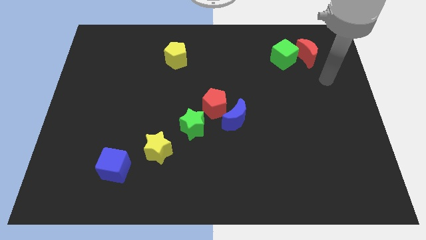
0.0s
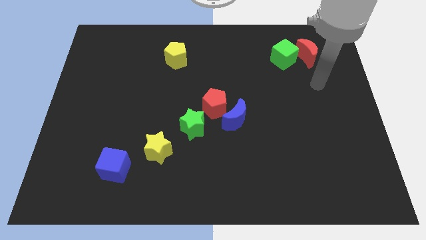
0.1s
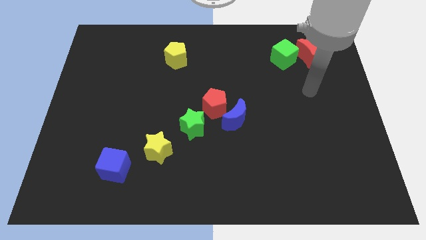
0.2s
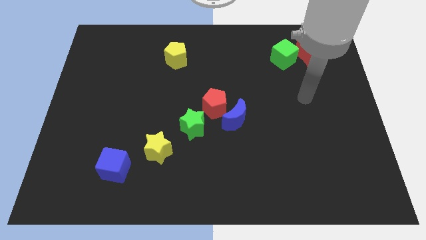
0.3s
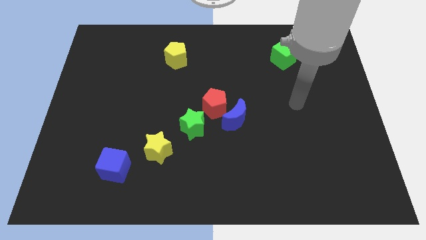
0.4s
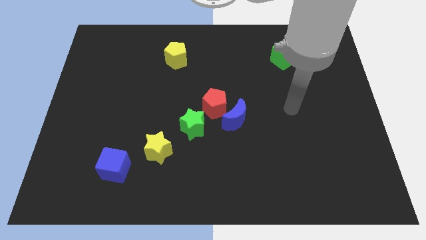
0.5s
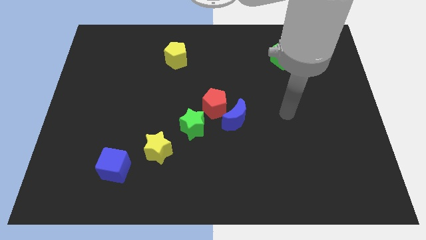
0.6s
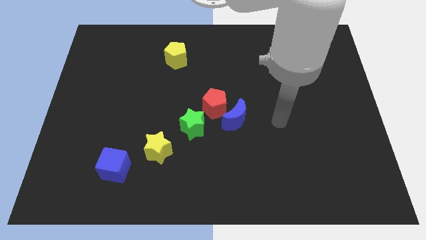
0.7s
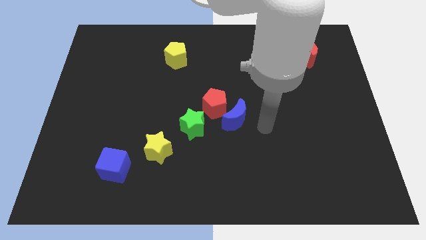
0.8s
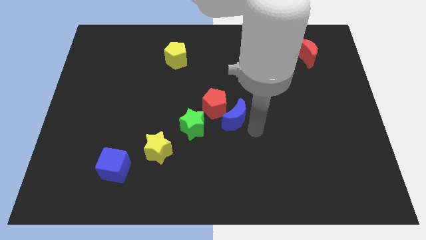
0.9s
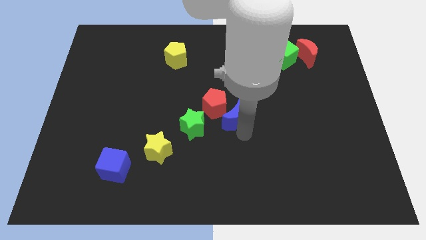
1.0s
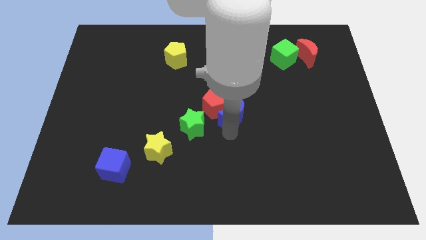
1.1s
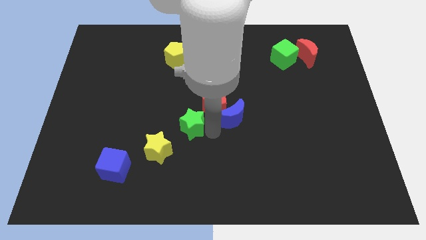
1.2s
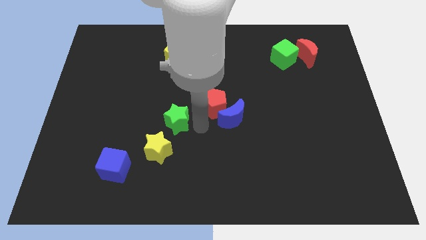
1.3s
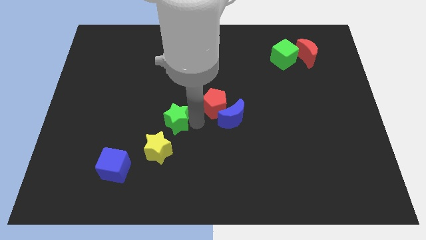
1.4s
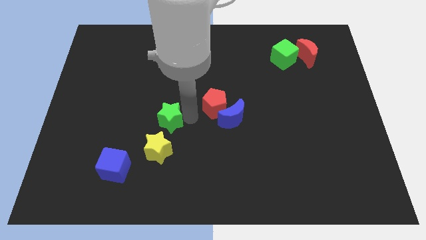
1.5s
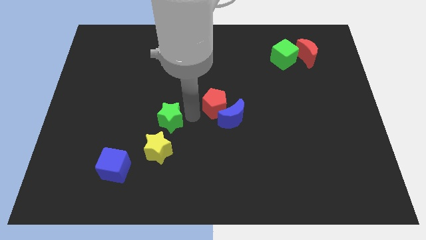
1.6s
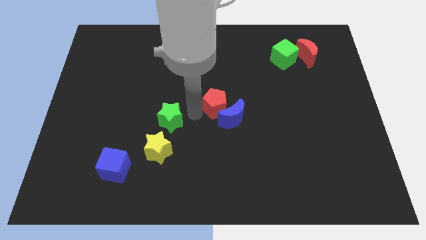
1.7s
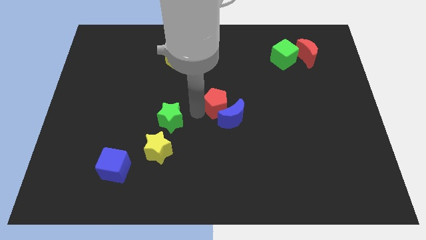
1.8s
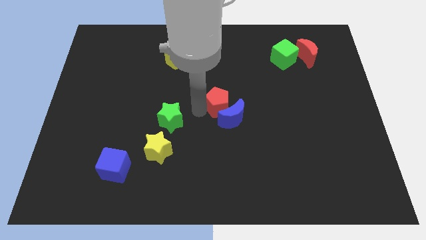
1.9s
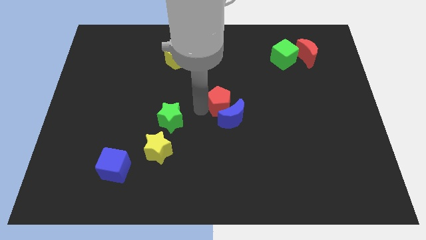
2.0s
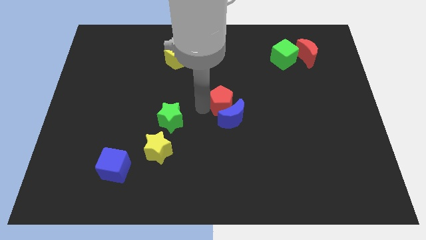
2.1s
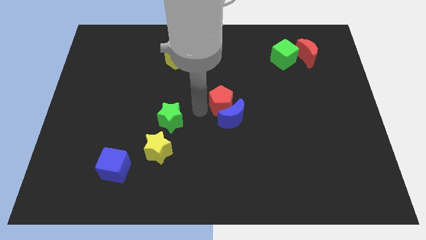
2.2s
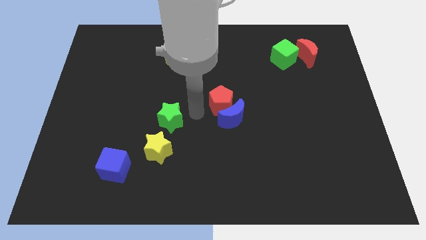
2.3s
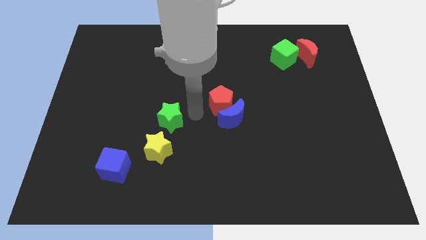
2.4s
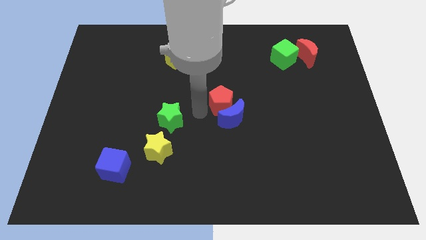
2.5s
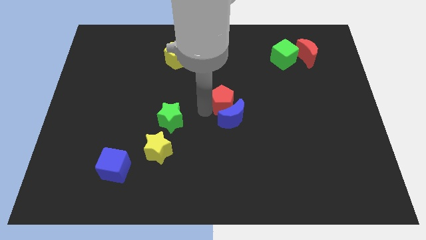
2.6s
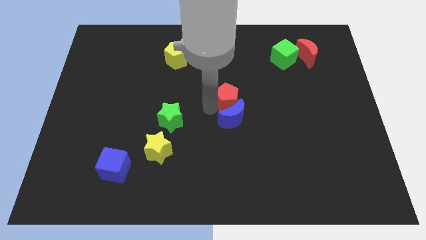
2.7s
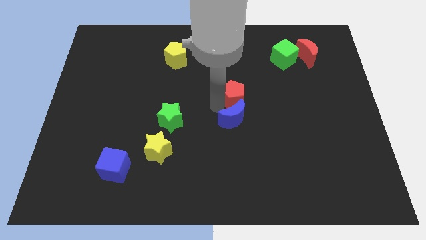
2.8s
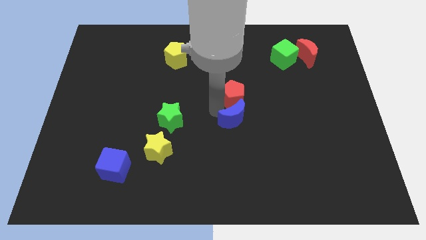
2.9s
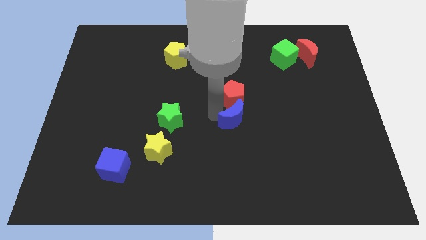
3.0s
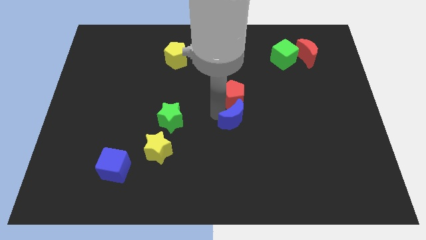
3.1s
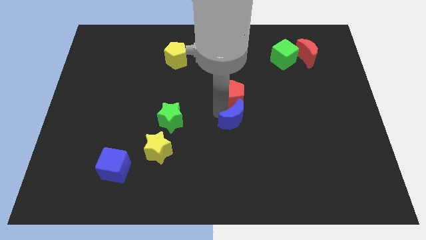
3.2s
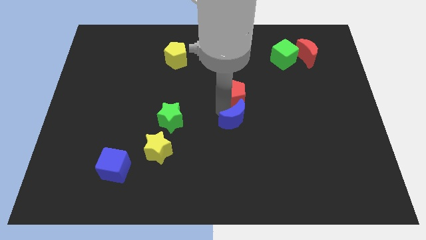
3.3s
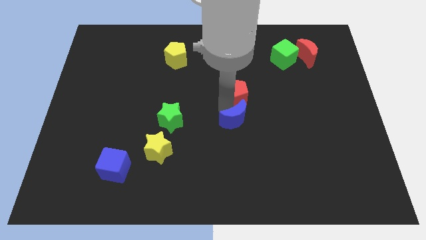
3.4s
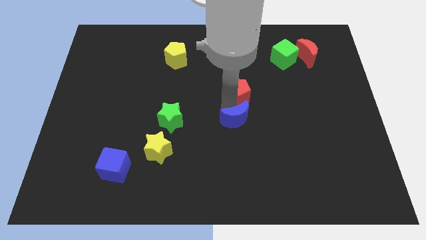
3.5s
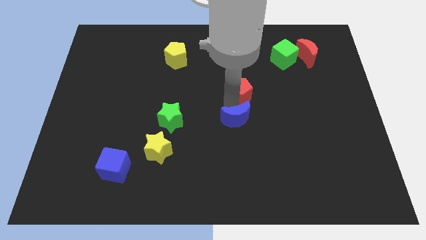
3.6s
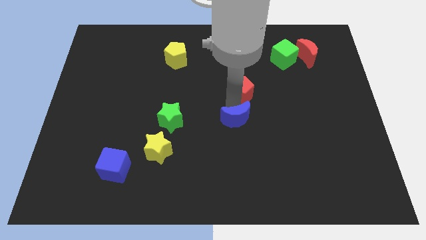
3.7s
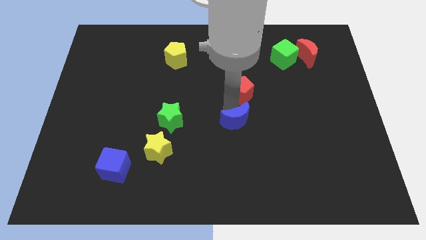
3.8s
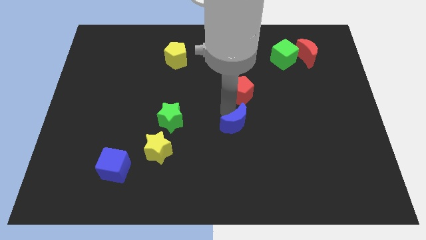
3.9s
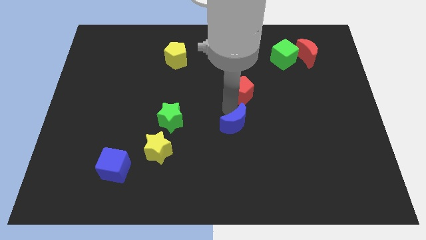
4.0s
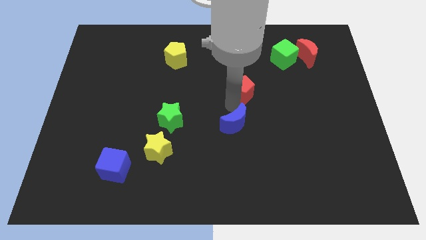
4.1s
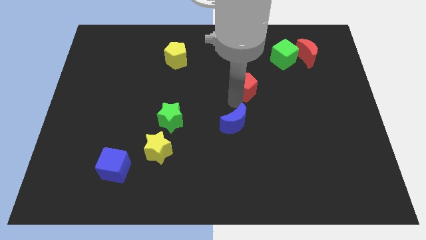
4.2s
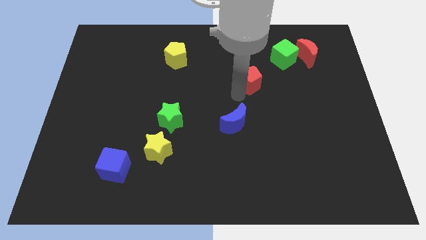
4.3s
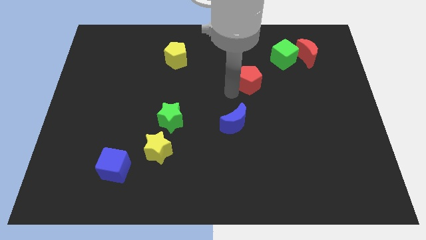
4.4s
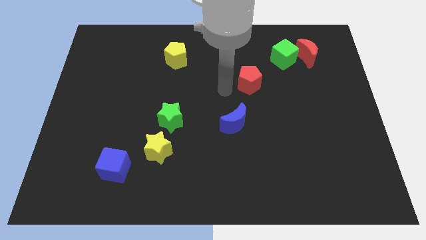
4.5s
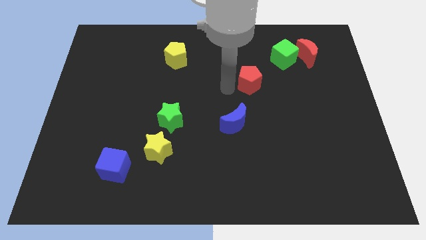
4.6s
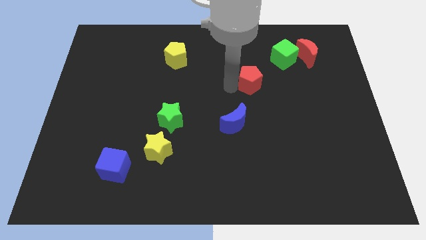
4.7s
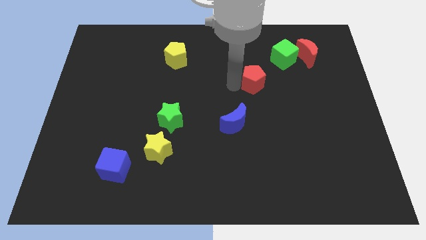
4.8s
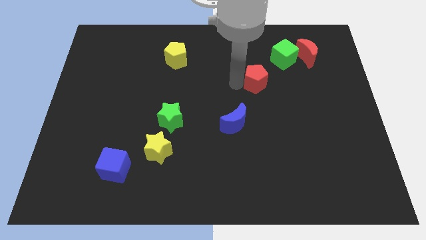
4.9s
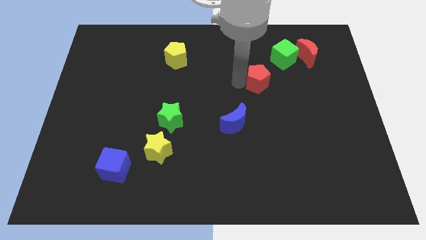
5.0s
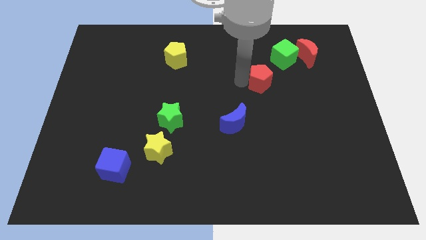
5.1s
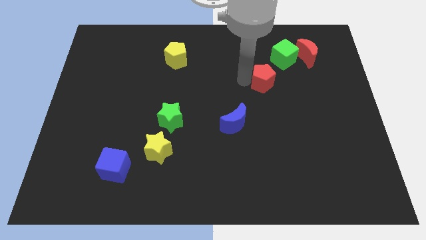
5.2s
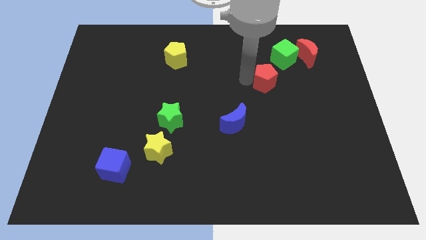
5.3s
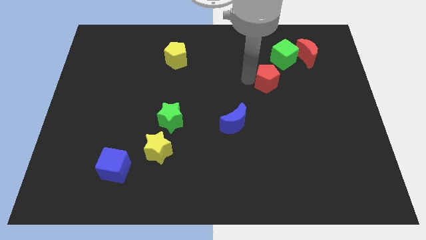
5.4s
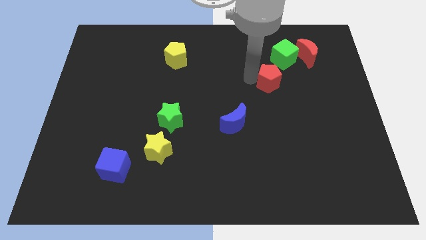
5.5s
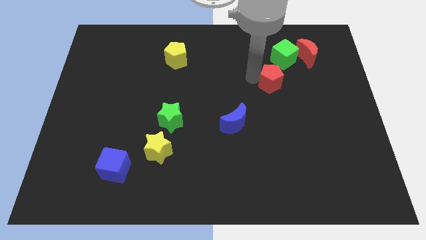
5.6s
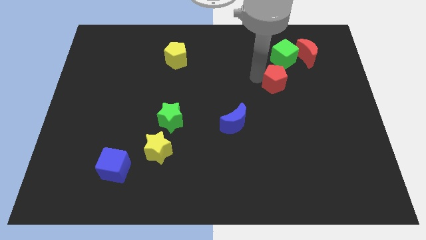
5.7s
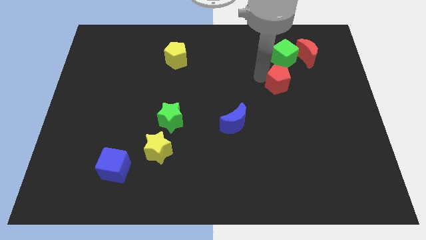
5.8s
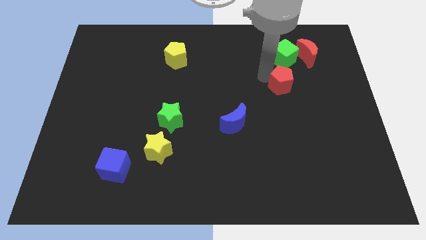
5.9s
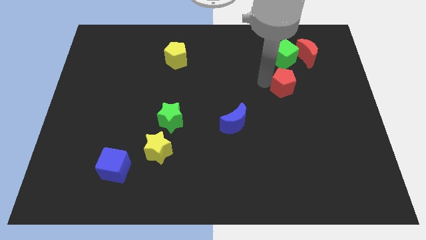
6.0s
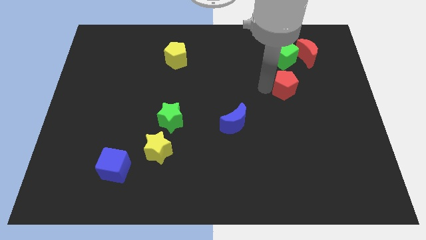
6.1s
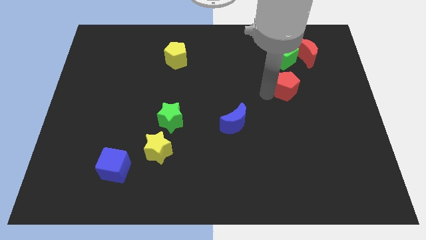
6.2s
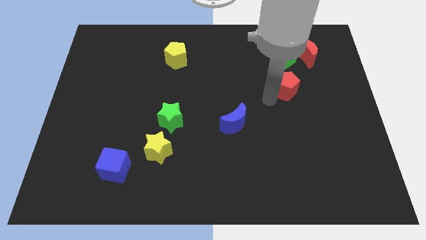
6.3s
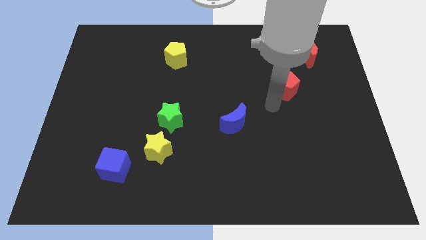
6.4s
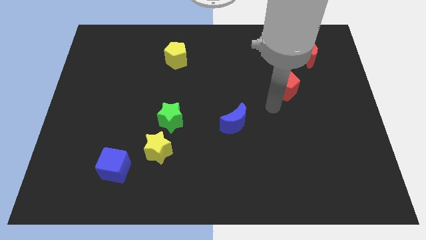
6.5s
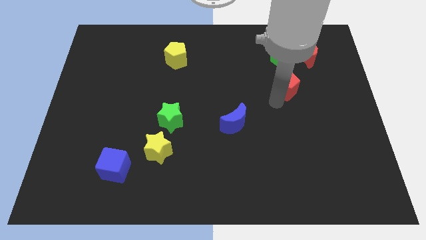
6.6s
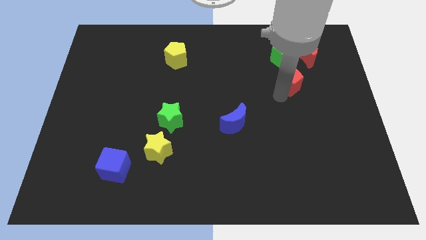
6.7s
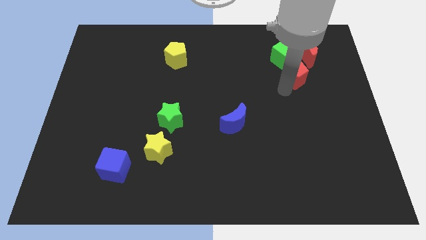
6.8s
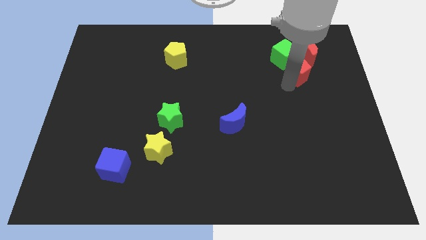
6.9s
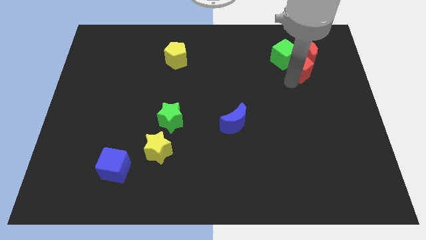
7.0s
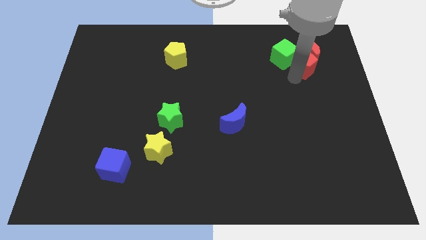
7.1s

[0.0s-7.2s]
put the red pentagon next to the red moon
